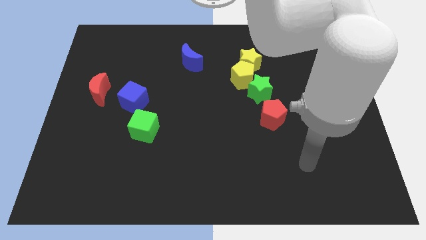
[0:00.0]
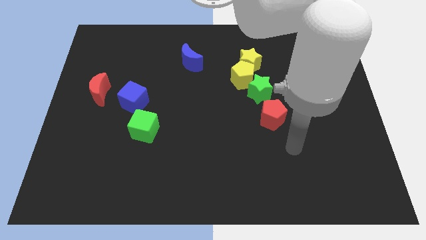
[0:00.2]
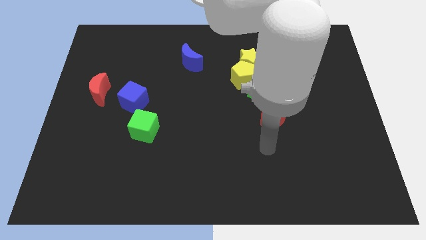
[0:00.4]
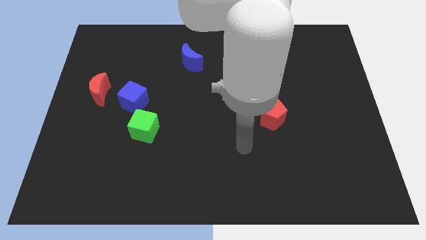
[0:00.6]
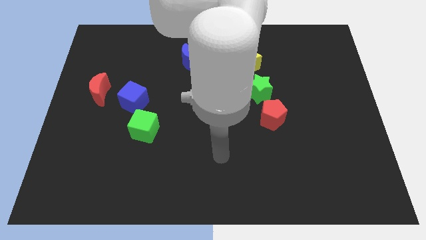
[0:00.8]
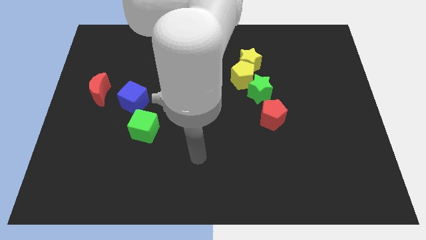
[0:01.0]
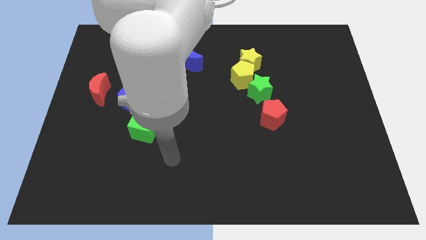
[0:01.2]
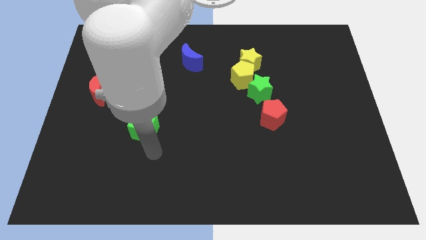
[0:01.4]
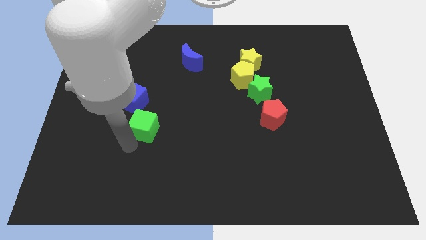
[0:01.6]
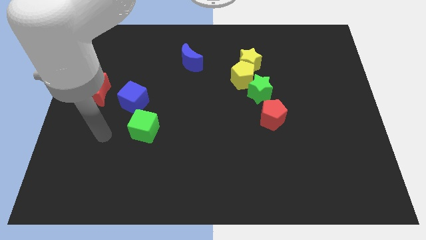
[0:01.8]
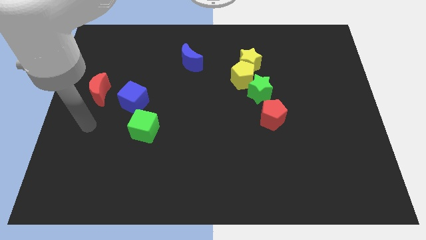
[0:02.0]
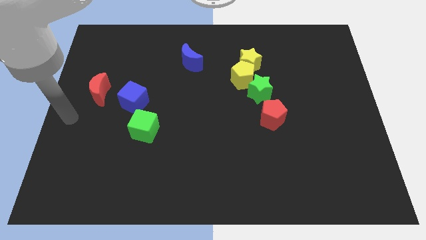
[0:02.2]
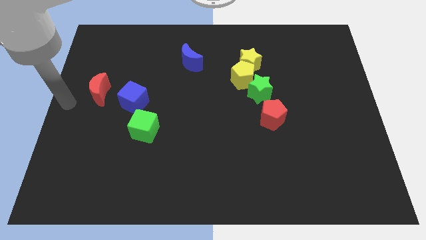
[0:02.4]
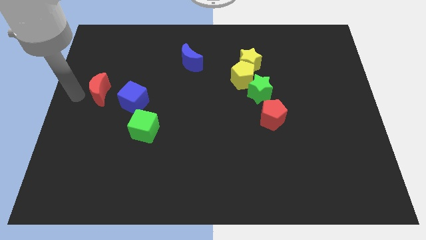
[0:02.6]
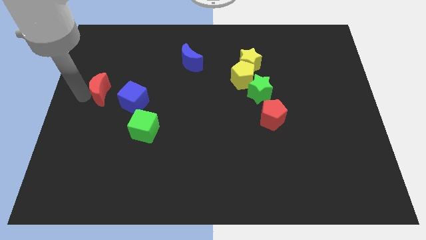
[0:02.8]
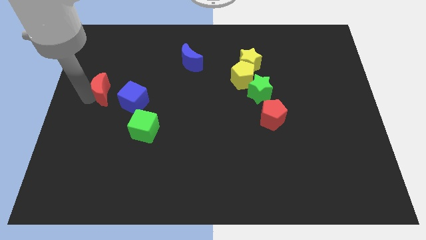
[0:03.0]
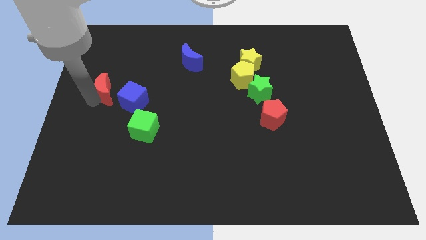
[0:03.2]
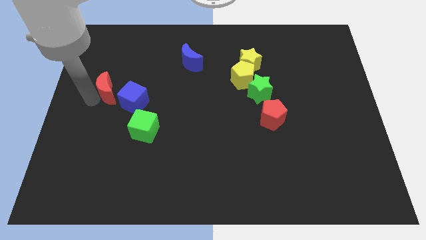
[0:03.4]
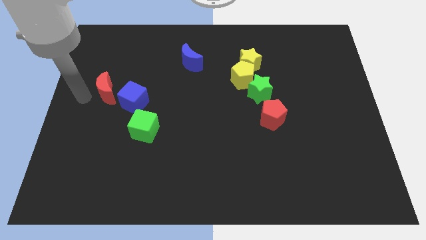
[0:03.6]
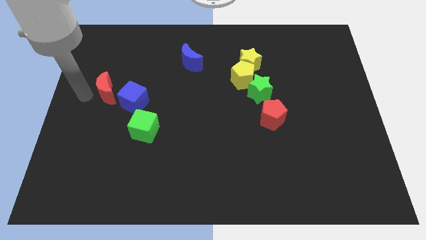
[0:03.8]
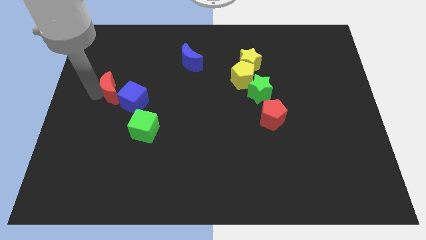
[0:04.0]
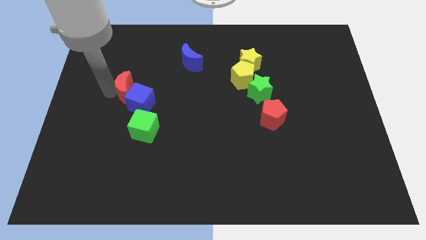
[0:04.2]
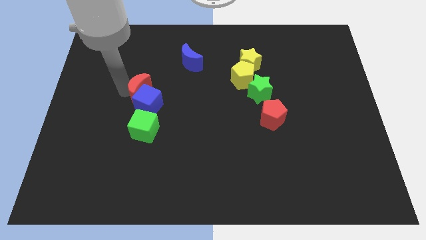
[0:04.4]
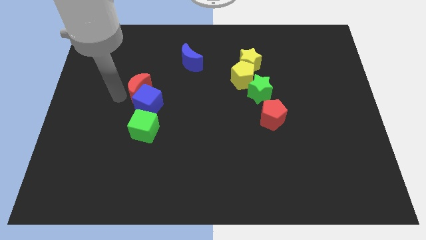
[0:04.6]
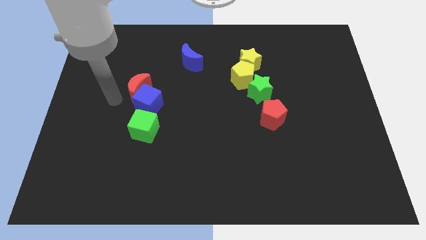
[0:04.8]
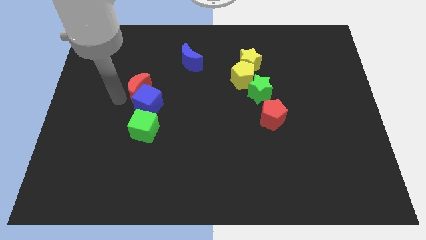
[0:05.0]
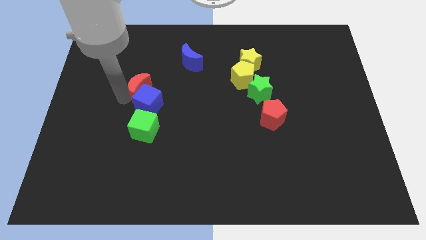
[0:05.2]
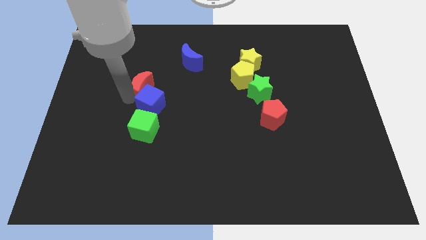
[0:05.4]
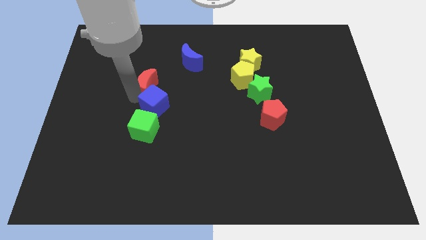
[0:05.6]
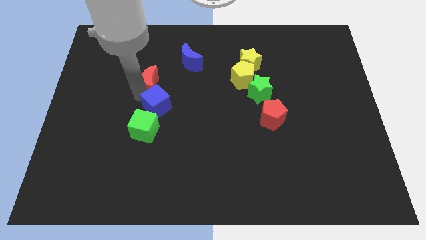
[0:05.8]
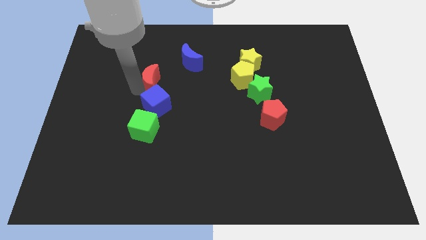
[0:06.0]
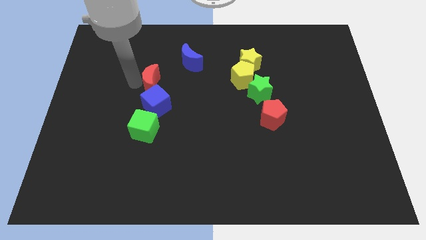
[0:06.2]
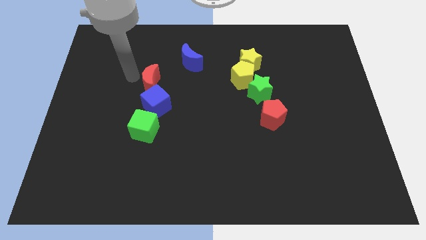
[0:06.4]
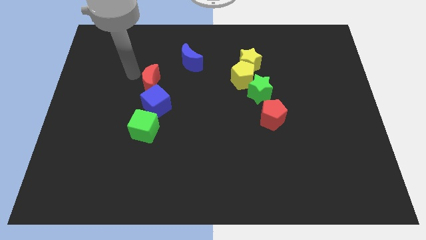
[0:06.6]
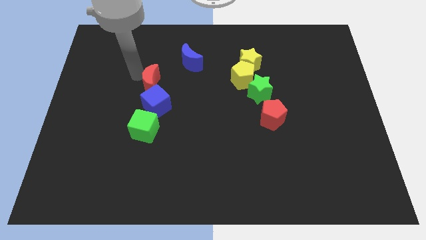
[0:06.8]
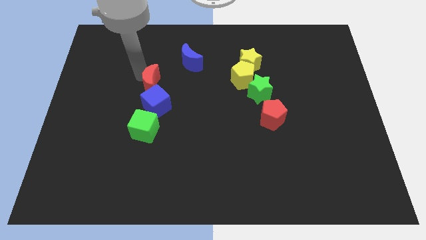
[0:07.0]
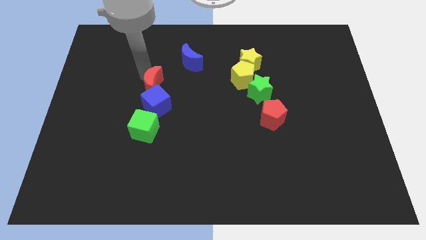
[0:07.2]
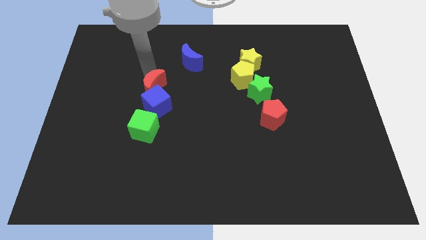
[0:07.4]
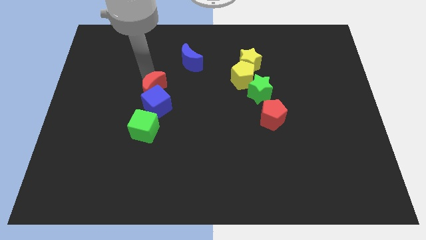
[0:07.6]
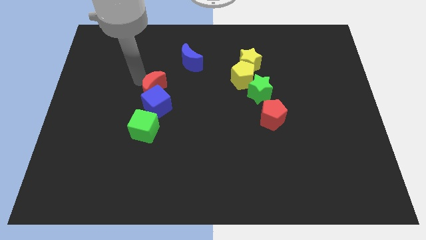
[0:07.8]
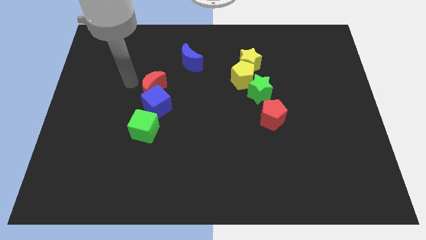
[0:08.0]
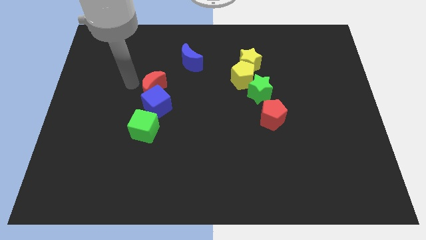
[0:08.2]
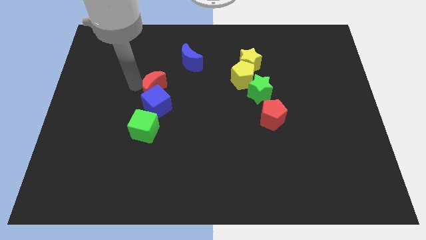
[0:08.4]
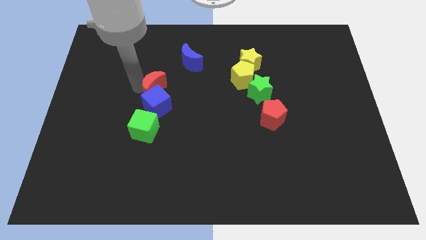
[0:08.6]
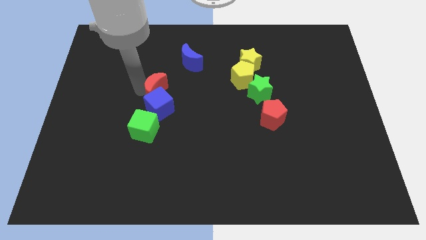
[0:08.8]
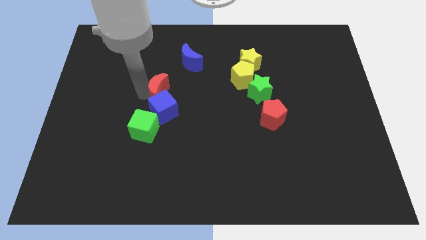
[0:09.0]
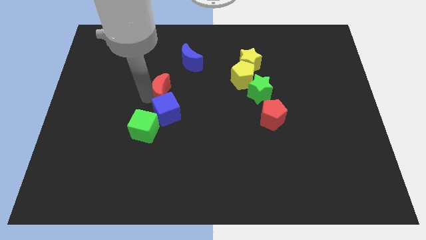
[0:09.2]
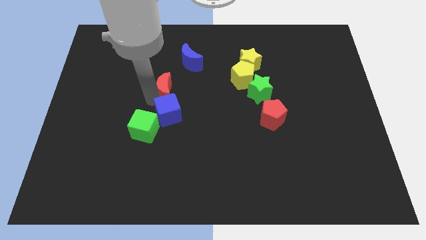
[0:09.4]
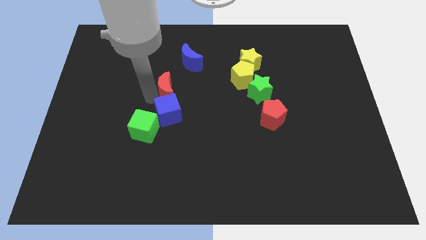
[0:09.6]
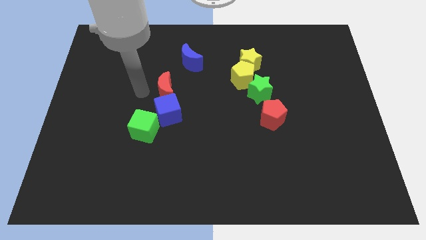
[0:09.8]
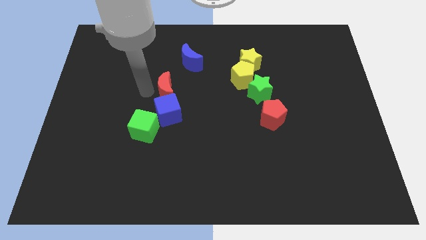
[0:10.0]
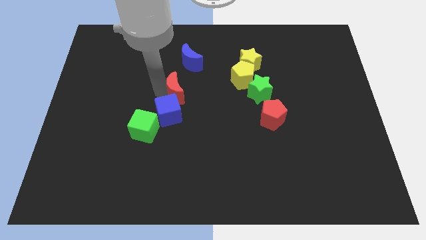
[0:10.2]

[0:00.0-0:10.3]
slide the red moon to the bottom side of the blue moon
